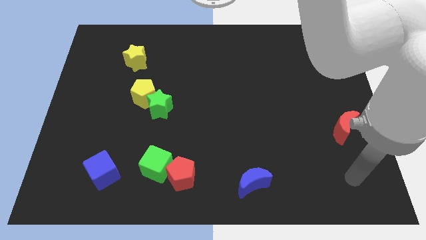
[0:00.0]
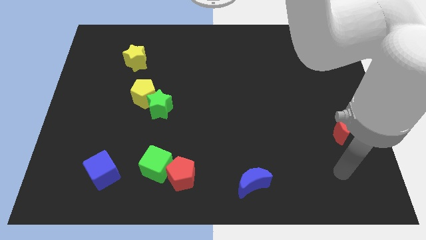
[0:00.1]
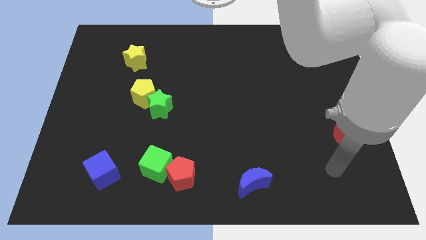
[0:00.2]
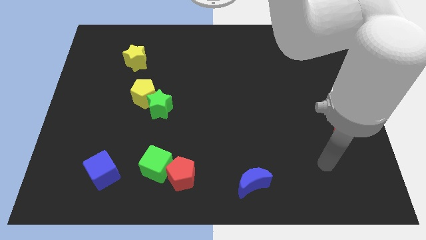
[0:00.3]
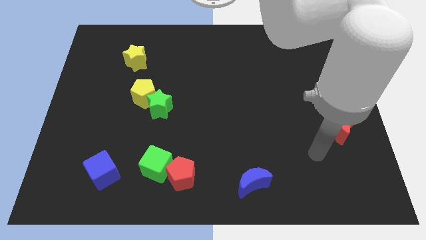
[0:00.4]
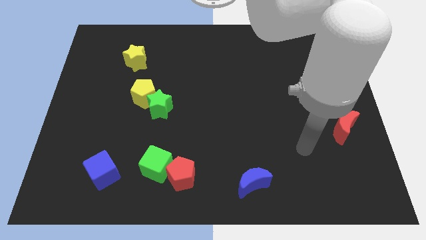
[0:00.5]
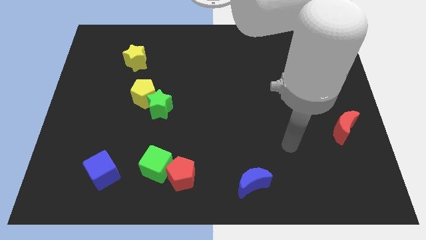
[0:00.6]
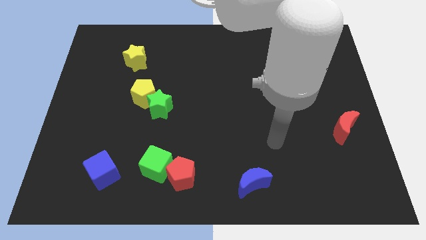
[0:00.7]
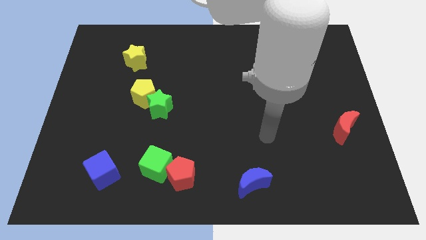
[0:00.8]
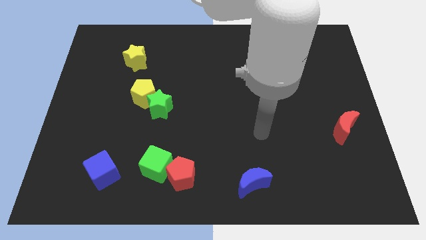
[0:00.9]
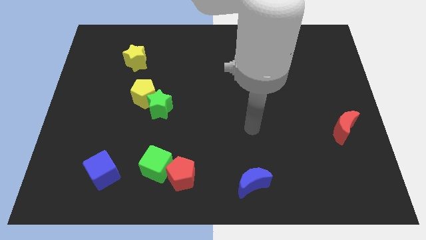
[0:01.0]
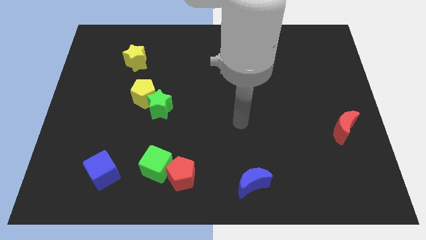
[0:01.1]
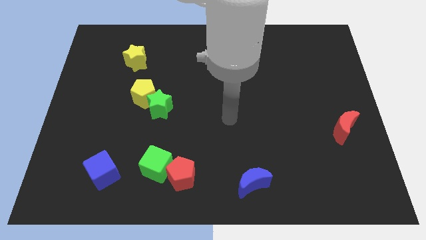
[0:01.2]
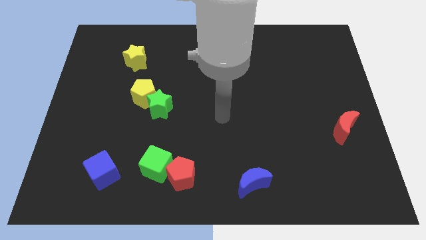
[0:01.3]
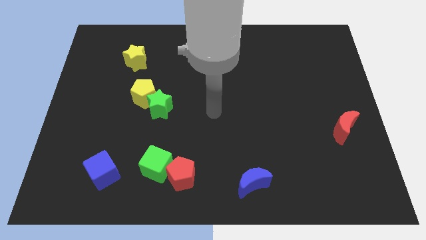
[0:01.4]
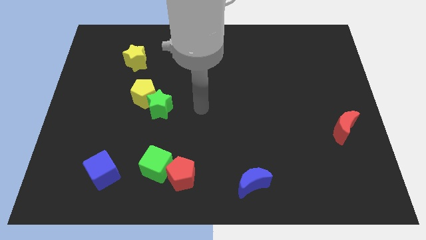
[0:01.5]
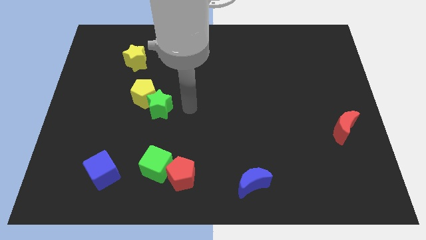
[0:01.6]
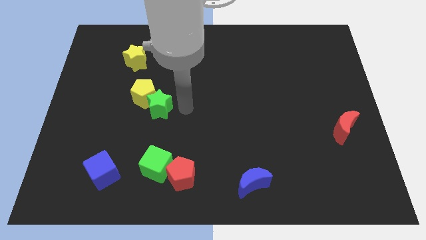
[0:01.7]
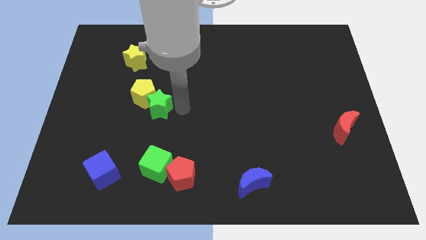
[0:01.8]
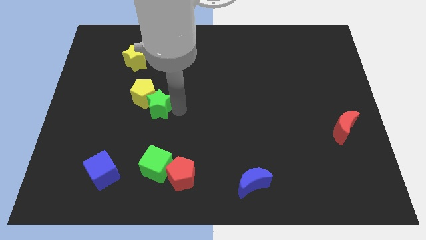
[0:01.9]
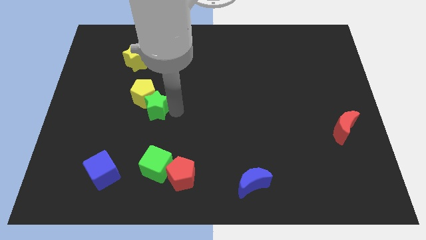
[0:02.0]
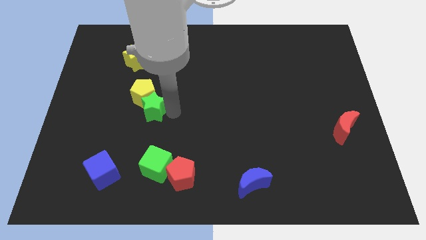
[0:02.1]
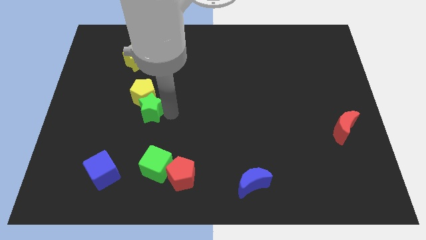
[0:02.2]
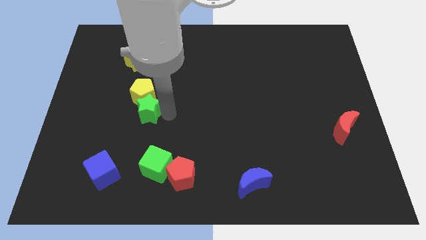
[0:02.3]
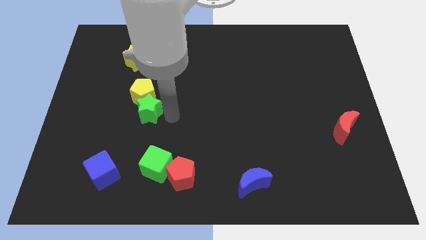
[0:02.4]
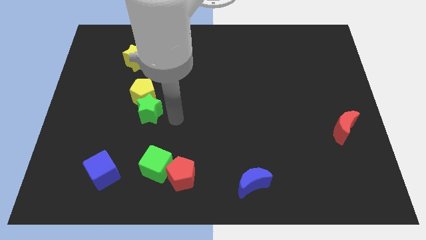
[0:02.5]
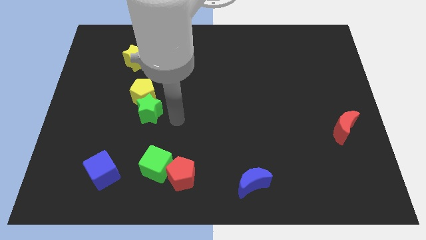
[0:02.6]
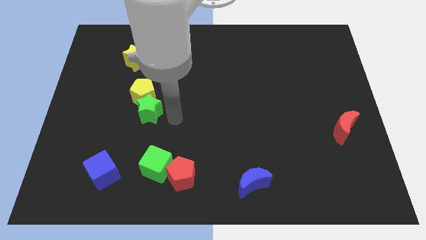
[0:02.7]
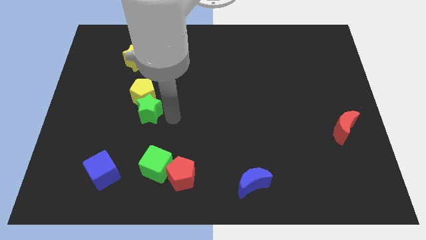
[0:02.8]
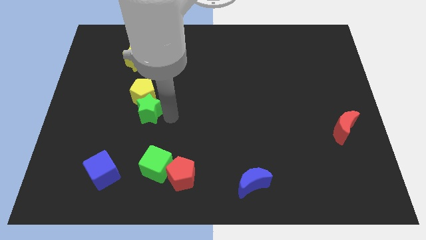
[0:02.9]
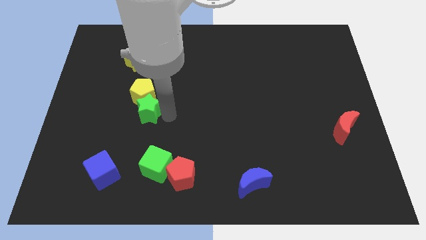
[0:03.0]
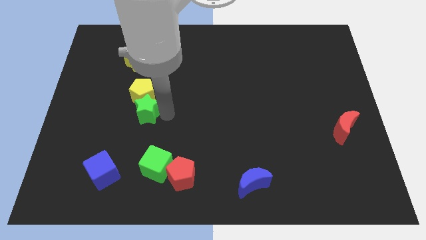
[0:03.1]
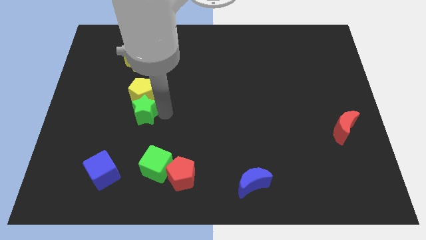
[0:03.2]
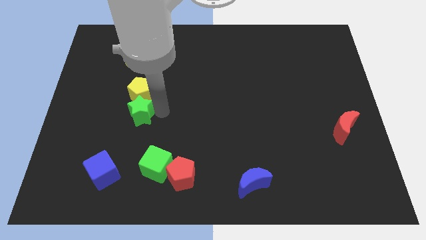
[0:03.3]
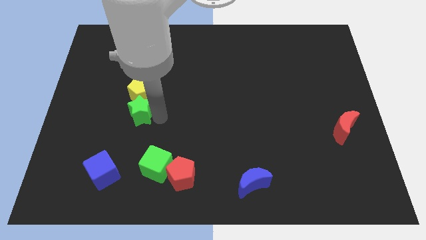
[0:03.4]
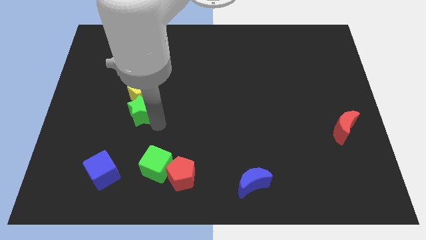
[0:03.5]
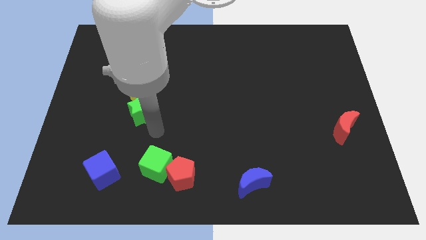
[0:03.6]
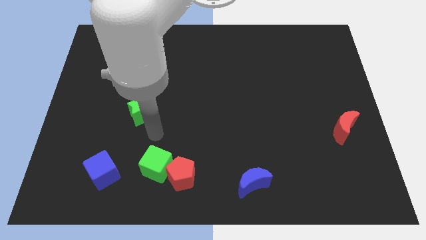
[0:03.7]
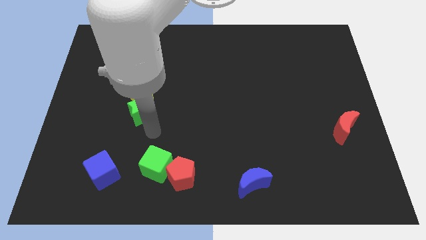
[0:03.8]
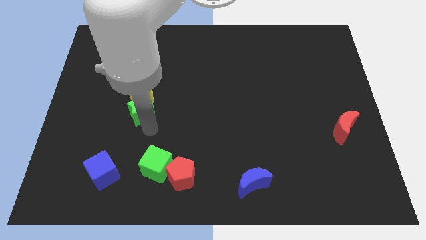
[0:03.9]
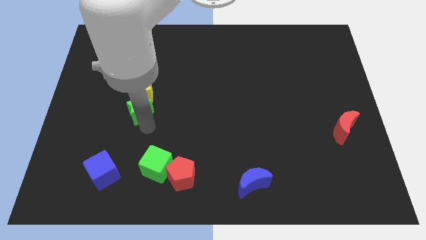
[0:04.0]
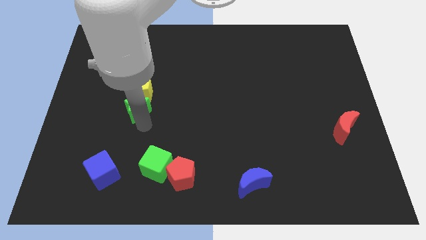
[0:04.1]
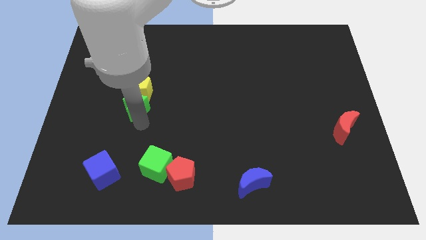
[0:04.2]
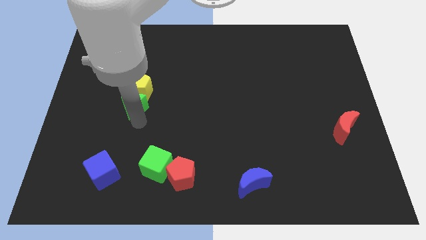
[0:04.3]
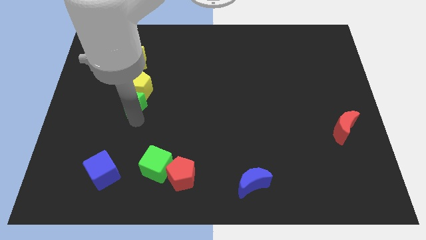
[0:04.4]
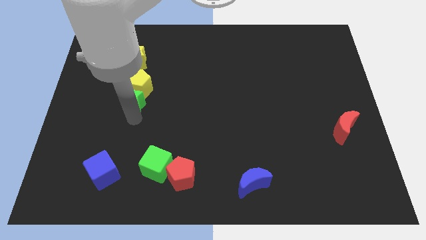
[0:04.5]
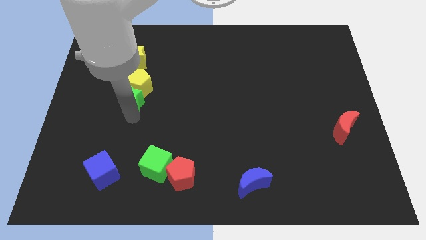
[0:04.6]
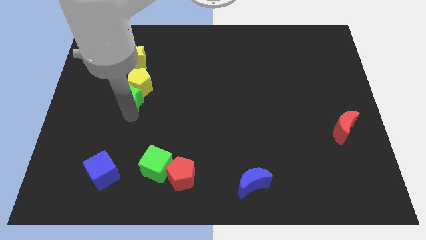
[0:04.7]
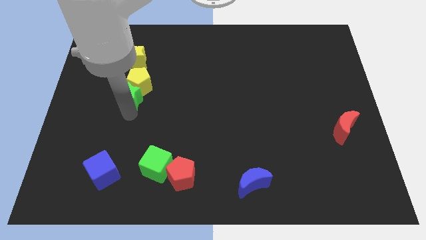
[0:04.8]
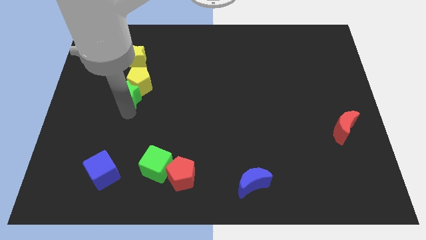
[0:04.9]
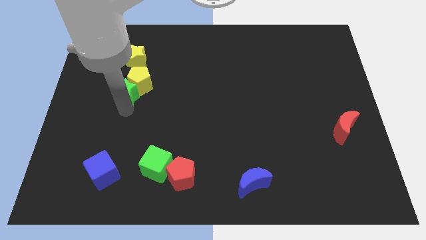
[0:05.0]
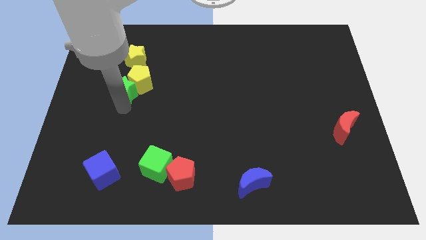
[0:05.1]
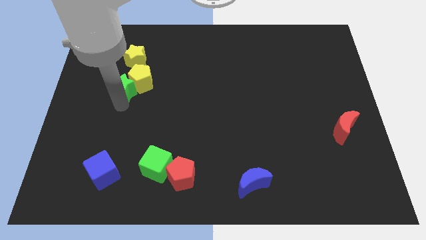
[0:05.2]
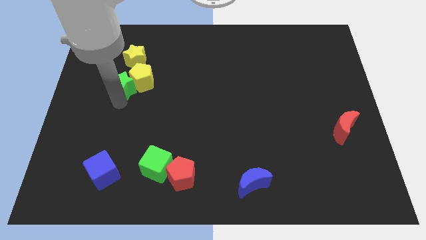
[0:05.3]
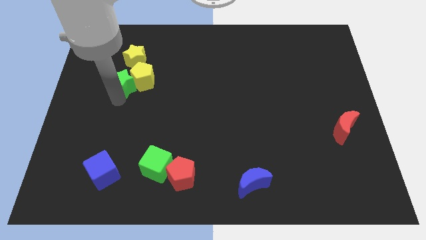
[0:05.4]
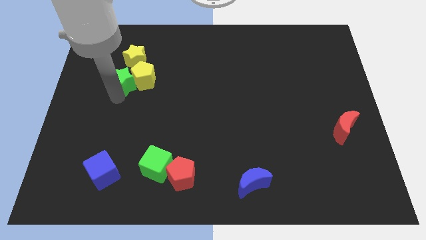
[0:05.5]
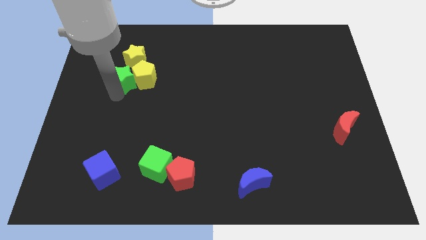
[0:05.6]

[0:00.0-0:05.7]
move the green star to the top left side of the yellow pentagon

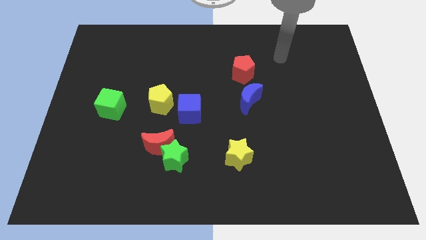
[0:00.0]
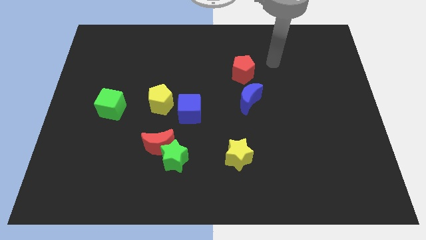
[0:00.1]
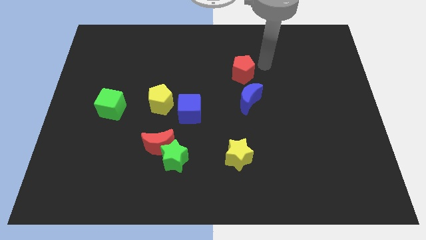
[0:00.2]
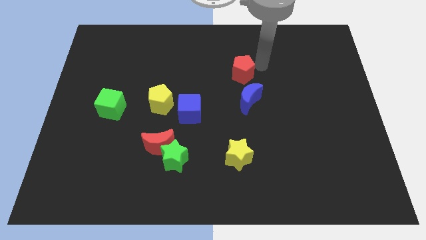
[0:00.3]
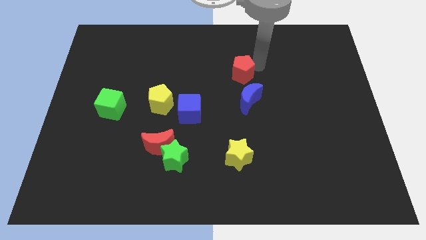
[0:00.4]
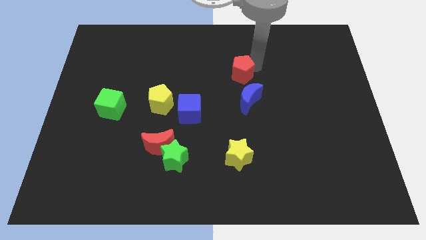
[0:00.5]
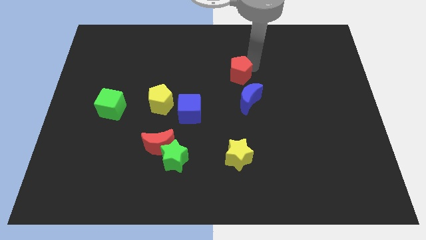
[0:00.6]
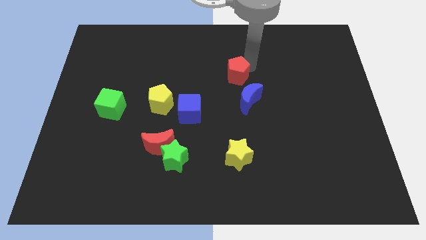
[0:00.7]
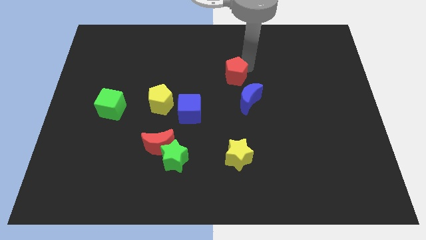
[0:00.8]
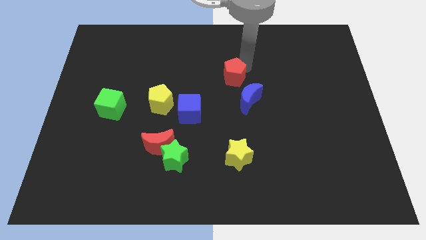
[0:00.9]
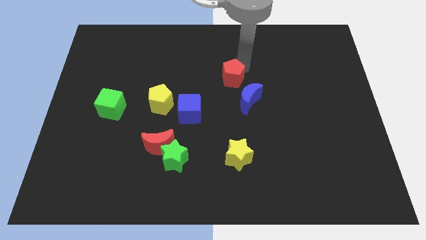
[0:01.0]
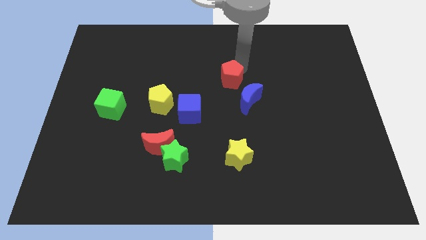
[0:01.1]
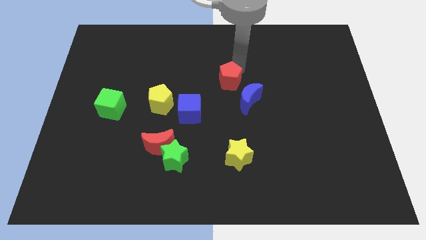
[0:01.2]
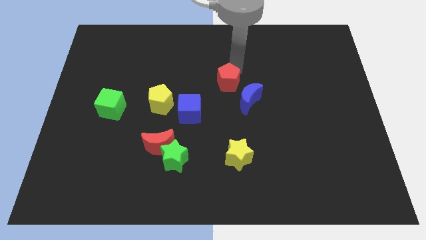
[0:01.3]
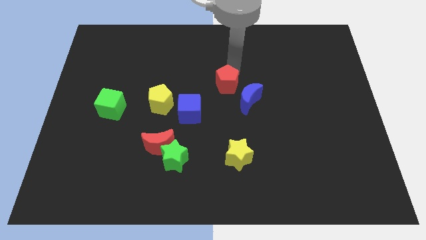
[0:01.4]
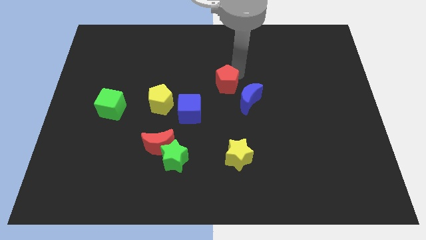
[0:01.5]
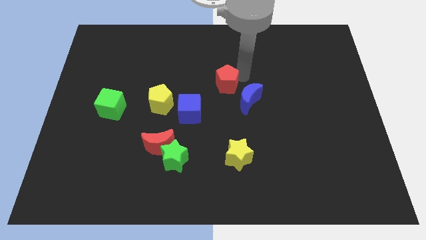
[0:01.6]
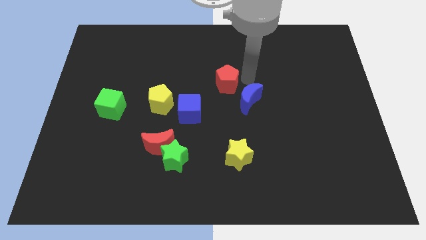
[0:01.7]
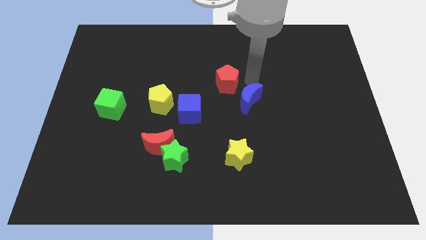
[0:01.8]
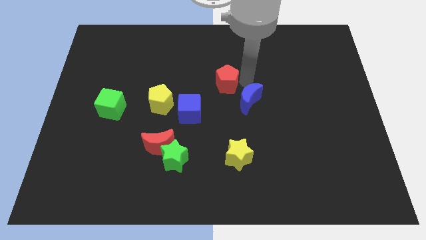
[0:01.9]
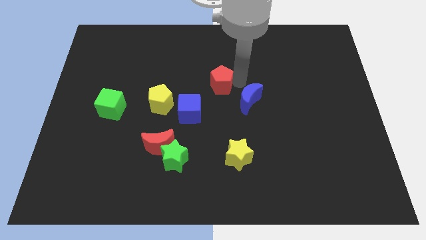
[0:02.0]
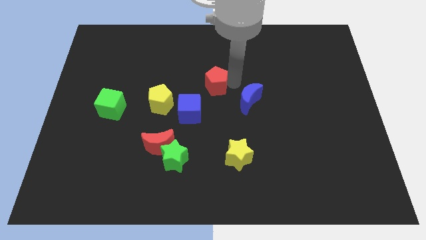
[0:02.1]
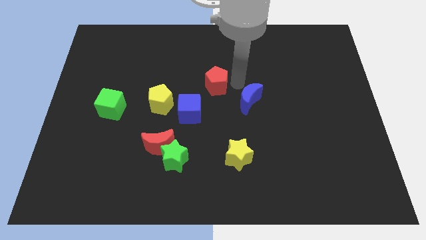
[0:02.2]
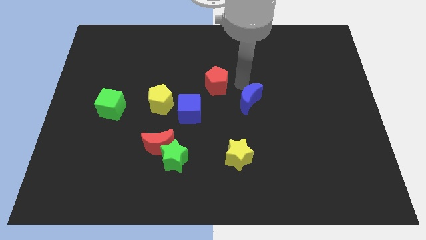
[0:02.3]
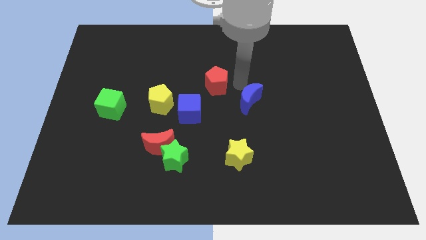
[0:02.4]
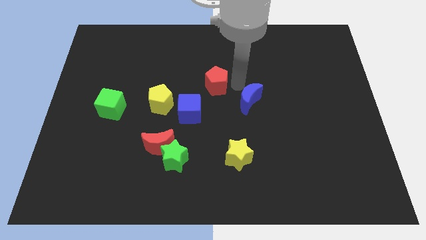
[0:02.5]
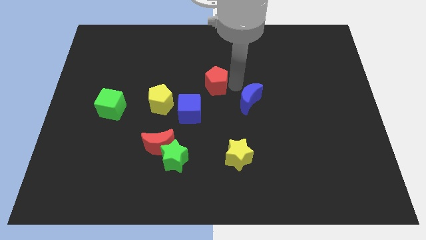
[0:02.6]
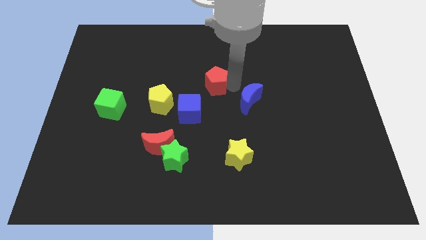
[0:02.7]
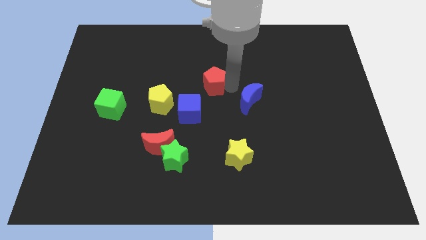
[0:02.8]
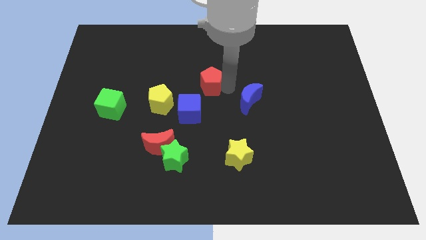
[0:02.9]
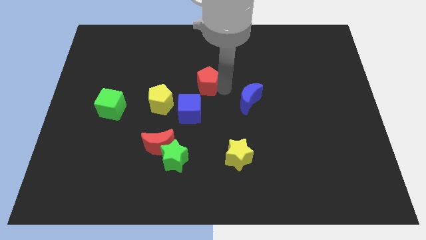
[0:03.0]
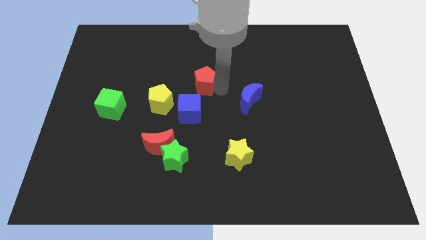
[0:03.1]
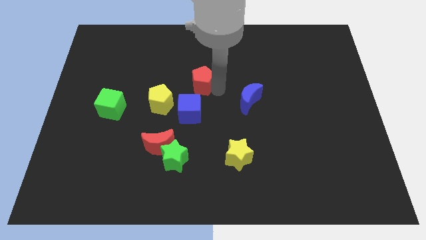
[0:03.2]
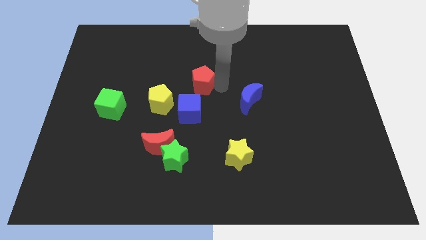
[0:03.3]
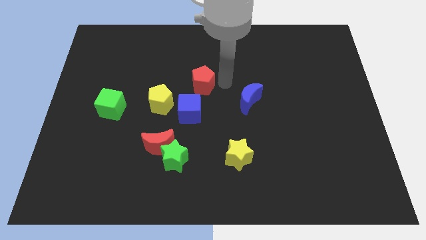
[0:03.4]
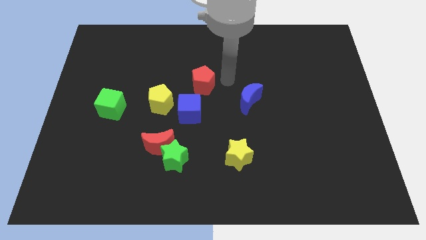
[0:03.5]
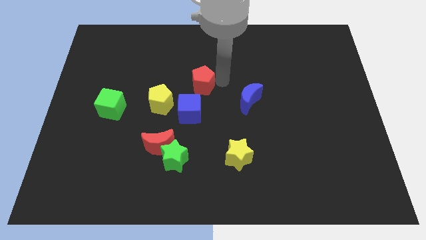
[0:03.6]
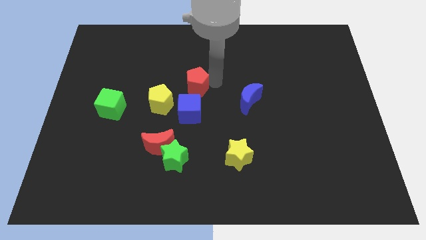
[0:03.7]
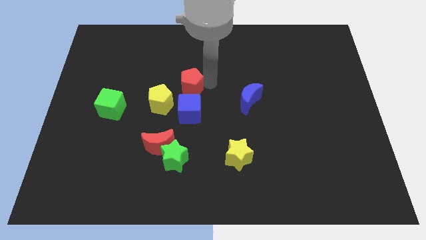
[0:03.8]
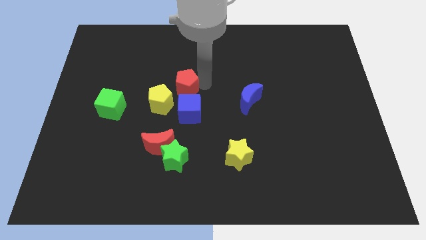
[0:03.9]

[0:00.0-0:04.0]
push the red pentagon to the top left of the blue cube
